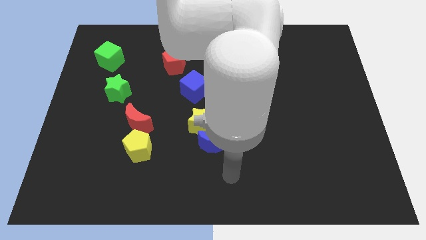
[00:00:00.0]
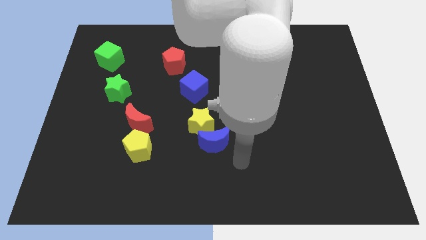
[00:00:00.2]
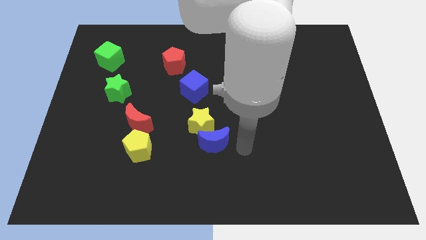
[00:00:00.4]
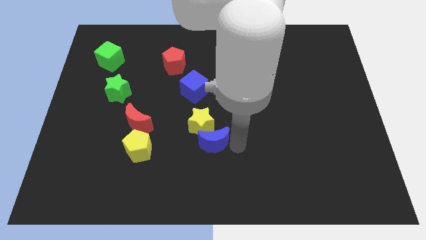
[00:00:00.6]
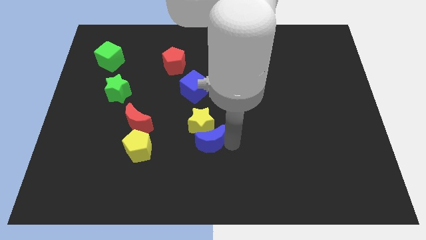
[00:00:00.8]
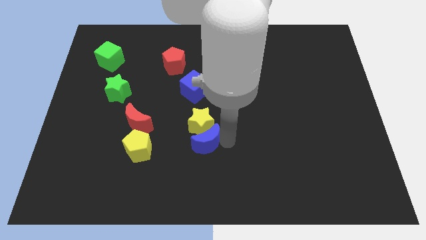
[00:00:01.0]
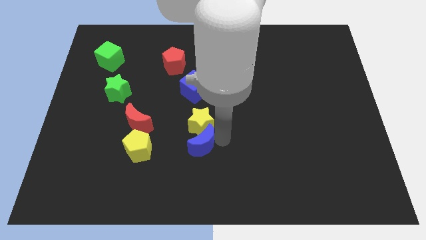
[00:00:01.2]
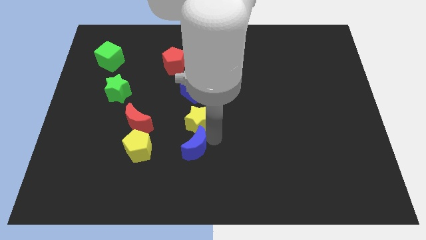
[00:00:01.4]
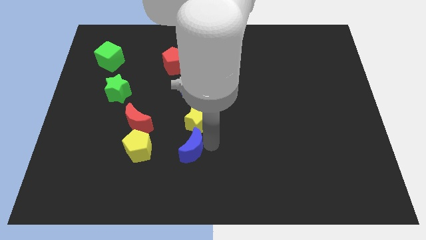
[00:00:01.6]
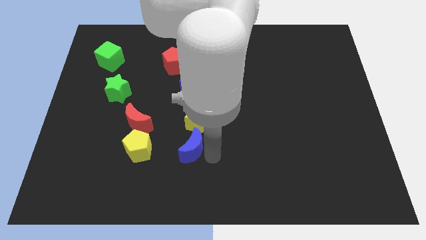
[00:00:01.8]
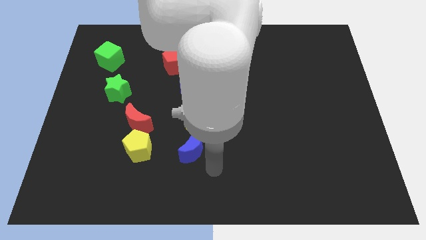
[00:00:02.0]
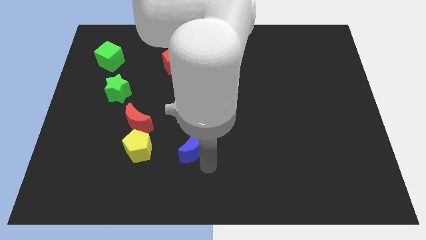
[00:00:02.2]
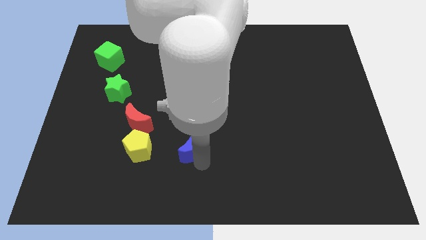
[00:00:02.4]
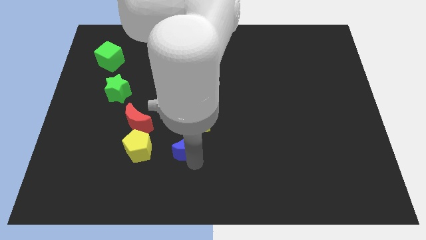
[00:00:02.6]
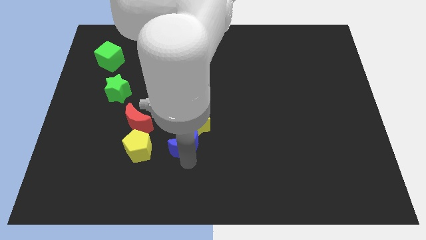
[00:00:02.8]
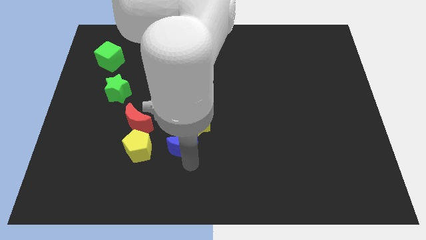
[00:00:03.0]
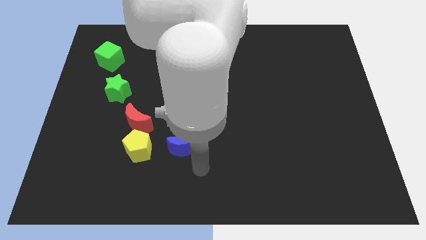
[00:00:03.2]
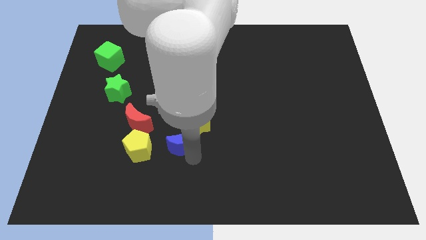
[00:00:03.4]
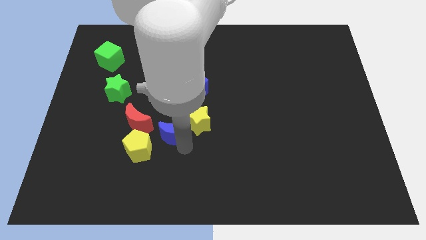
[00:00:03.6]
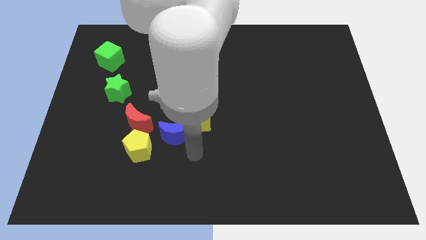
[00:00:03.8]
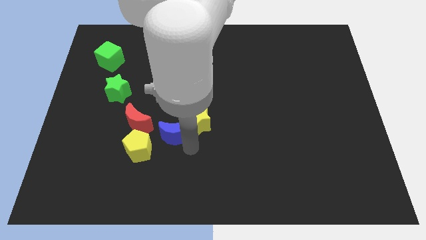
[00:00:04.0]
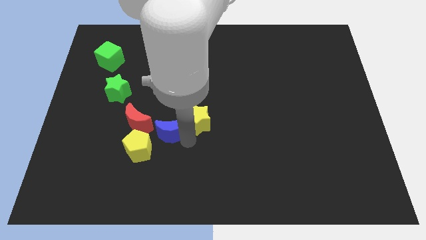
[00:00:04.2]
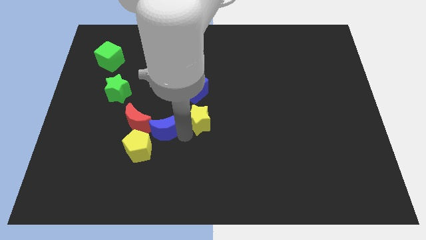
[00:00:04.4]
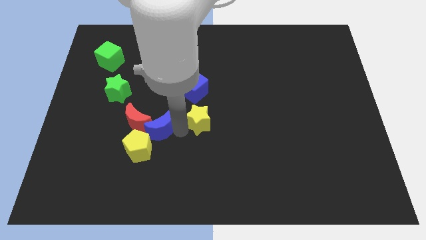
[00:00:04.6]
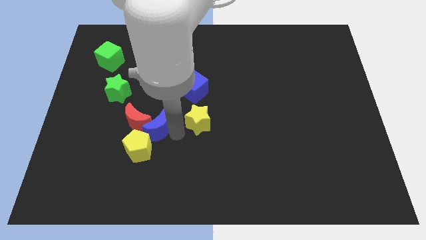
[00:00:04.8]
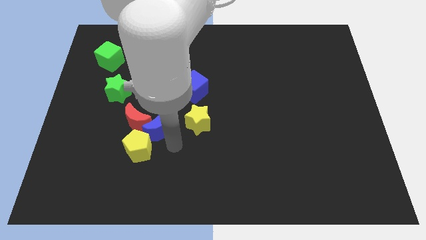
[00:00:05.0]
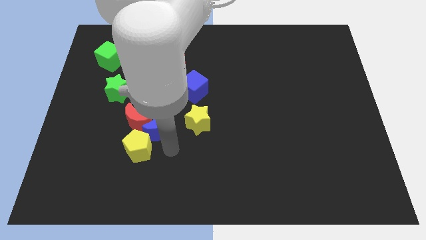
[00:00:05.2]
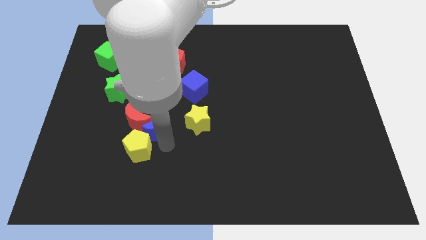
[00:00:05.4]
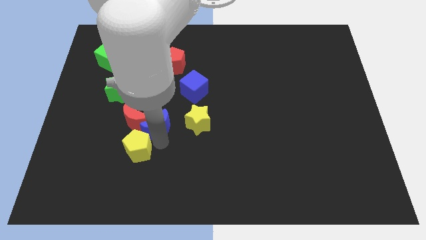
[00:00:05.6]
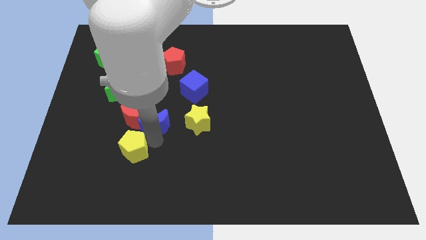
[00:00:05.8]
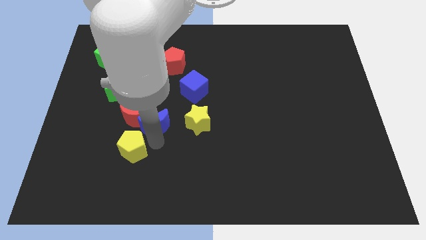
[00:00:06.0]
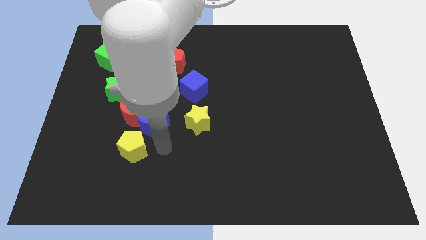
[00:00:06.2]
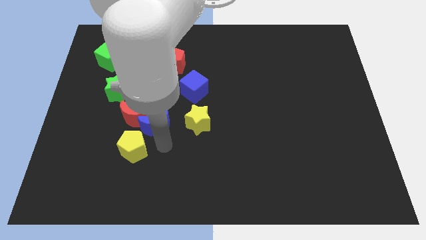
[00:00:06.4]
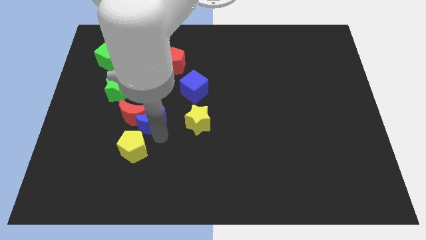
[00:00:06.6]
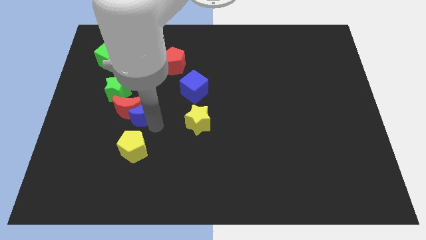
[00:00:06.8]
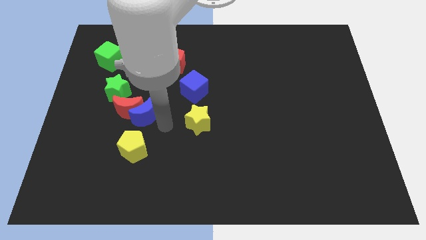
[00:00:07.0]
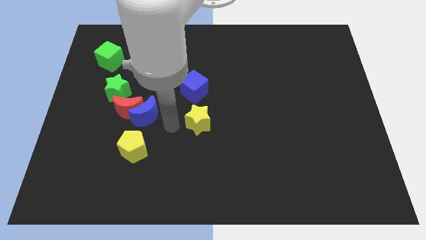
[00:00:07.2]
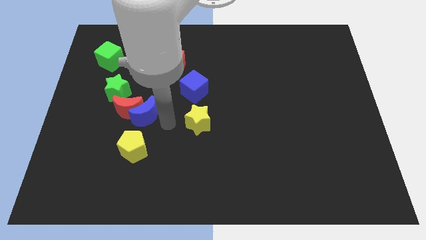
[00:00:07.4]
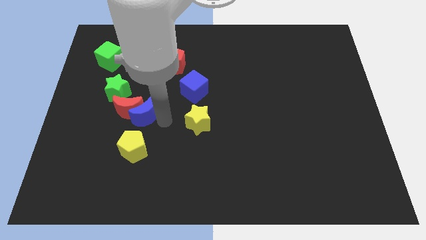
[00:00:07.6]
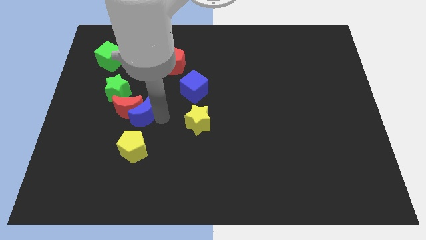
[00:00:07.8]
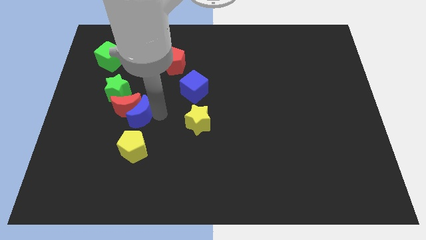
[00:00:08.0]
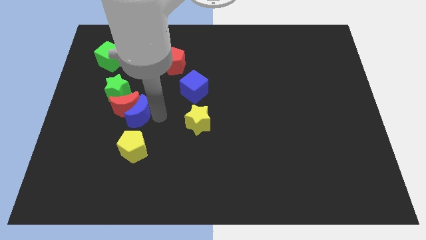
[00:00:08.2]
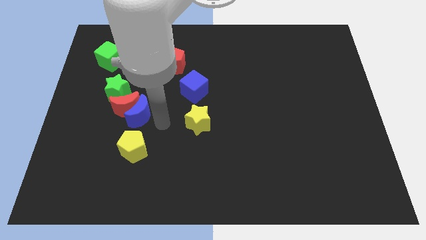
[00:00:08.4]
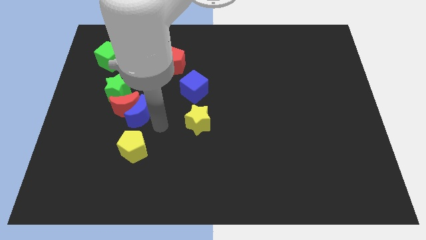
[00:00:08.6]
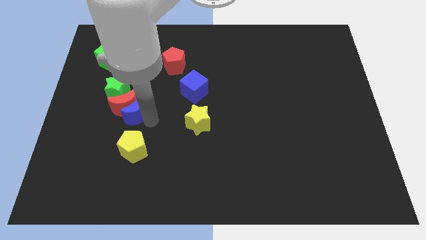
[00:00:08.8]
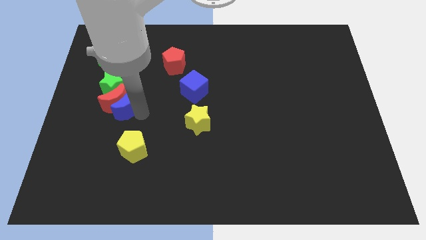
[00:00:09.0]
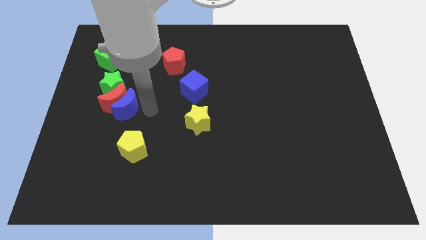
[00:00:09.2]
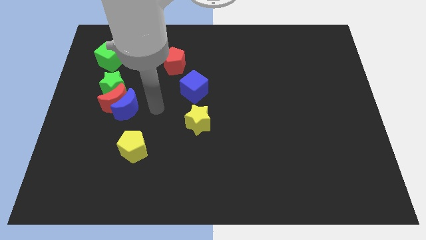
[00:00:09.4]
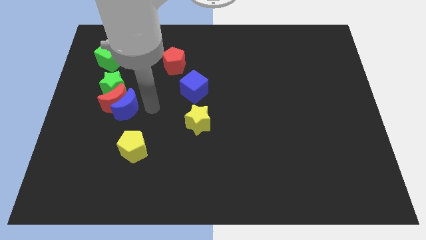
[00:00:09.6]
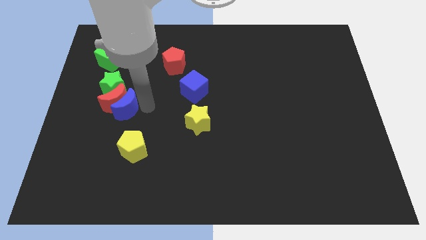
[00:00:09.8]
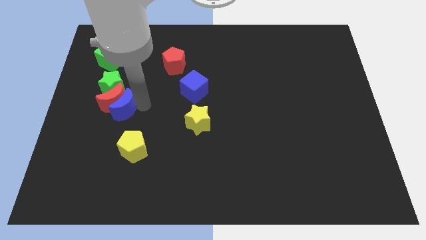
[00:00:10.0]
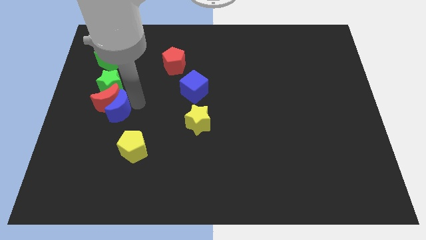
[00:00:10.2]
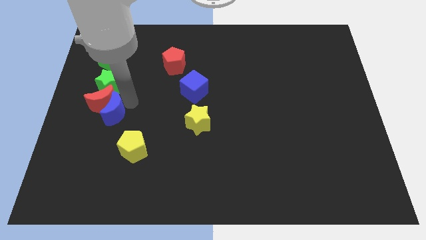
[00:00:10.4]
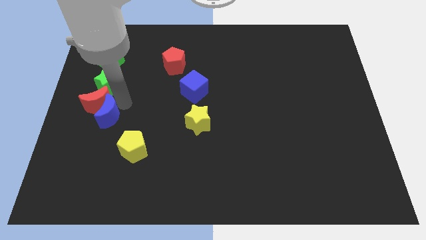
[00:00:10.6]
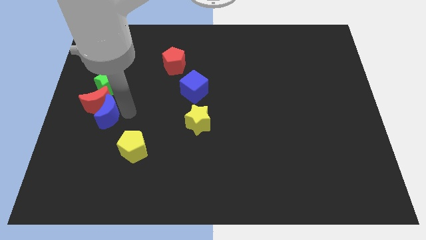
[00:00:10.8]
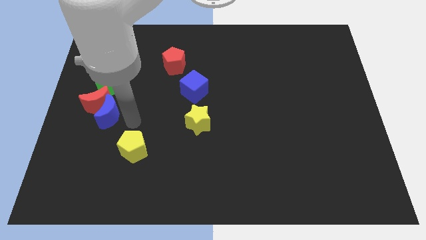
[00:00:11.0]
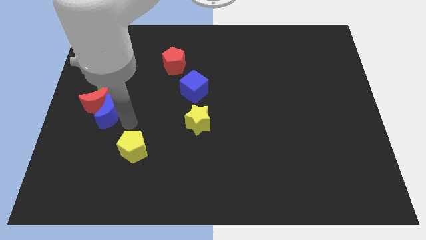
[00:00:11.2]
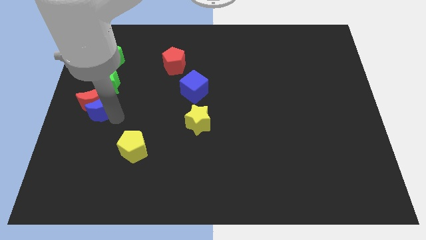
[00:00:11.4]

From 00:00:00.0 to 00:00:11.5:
slide the blue moon to the center left

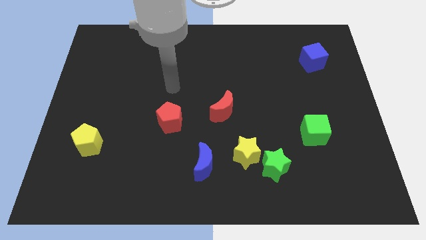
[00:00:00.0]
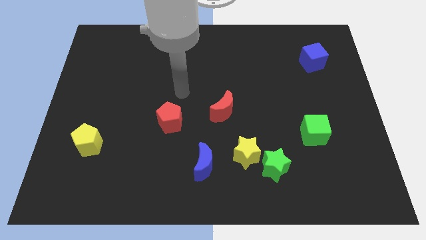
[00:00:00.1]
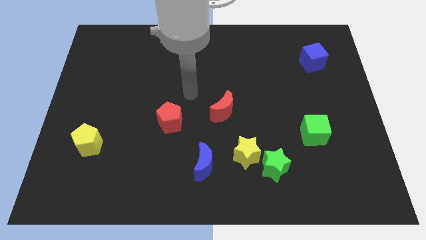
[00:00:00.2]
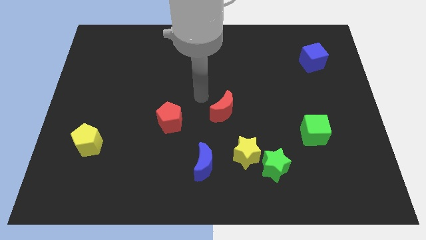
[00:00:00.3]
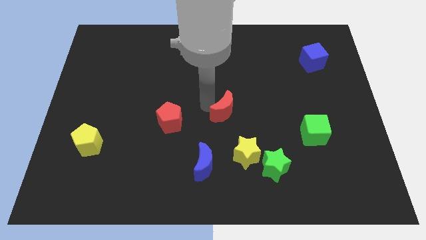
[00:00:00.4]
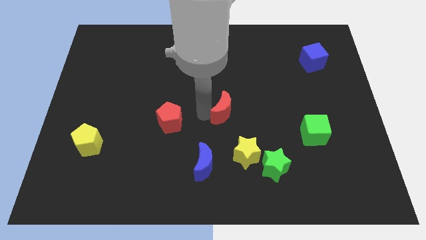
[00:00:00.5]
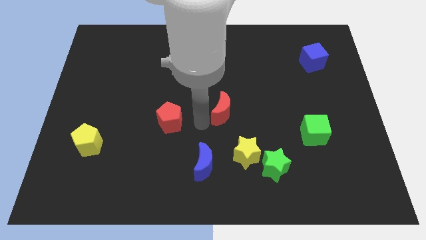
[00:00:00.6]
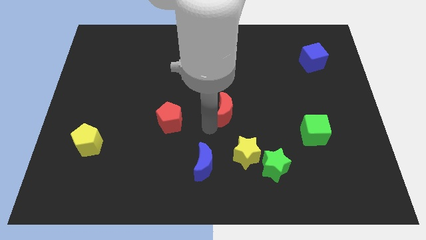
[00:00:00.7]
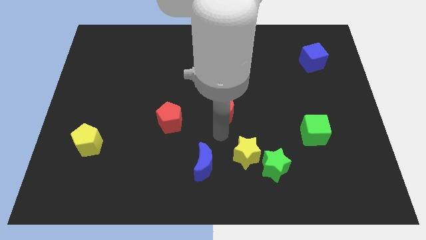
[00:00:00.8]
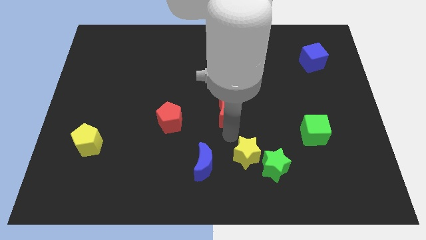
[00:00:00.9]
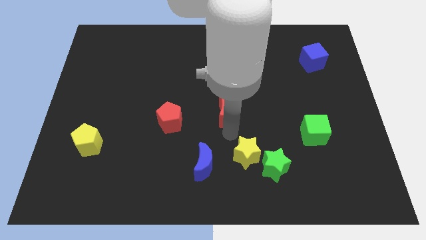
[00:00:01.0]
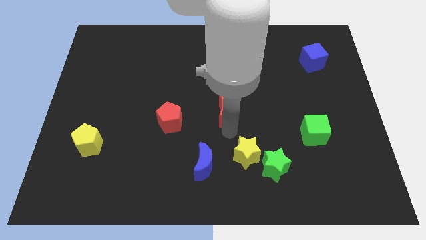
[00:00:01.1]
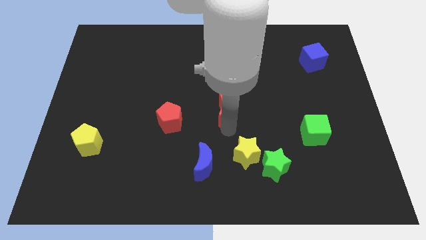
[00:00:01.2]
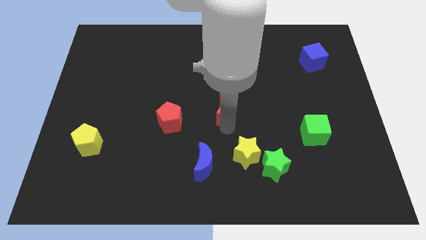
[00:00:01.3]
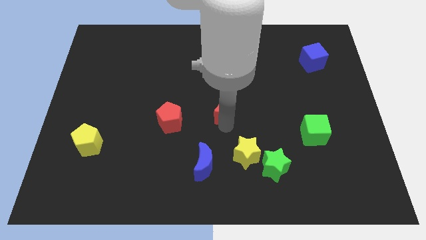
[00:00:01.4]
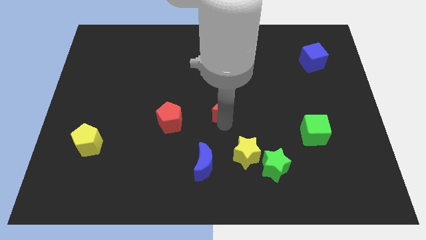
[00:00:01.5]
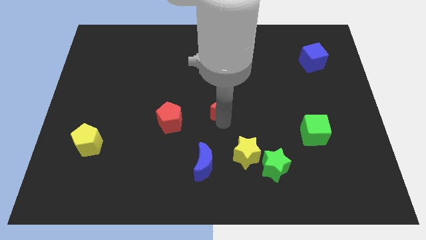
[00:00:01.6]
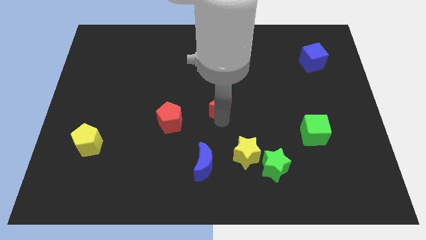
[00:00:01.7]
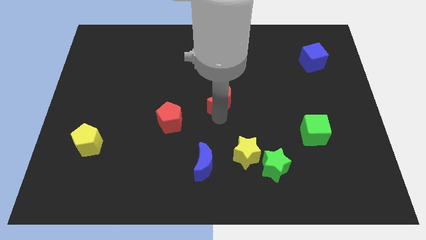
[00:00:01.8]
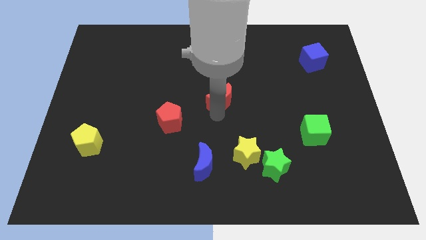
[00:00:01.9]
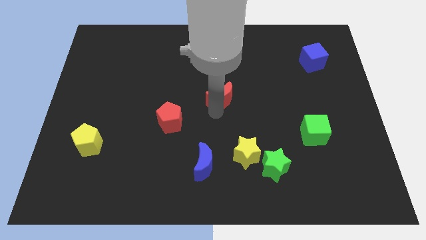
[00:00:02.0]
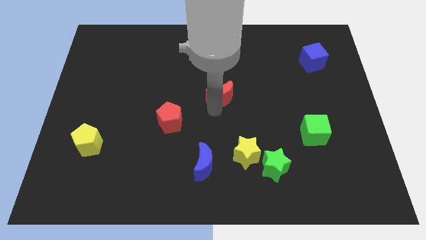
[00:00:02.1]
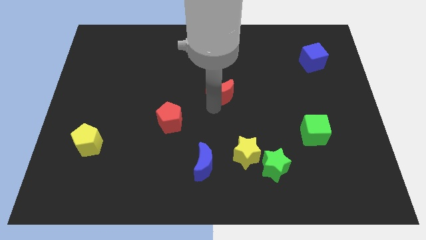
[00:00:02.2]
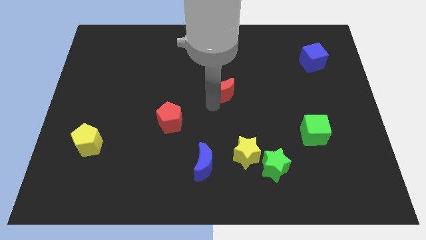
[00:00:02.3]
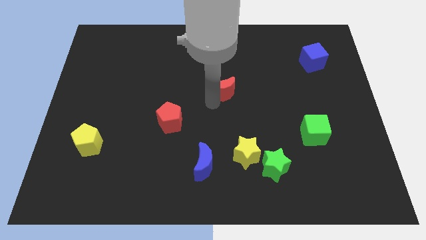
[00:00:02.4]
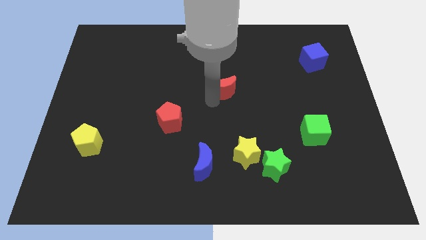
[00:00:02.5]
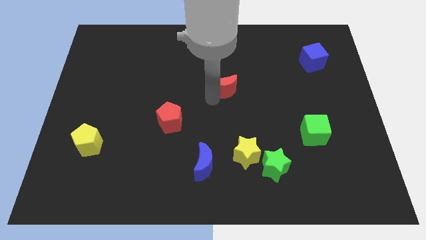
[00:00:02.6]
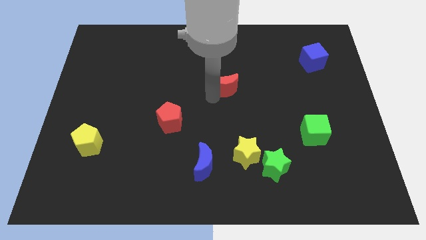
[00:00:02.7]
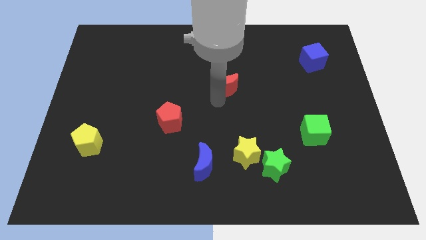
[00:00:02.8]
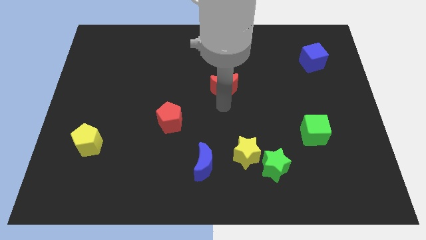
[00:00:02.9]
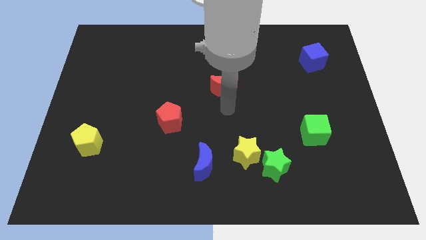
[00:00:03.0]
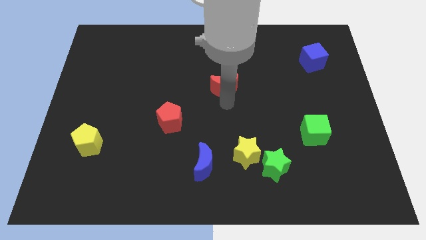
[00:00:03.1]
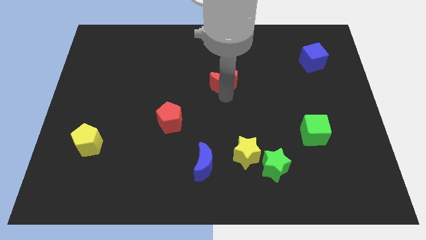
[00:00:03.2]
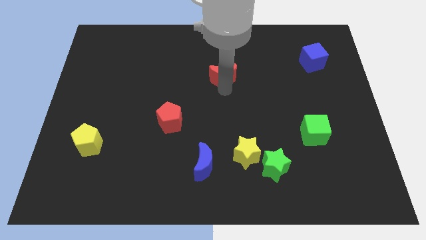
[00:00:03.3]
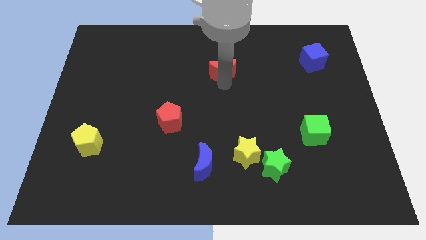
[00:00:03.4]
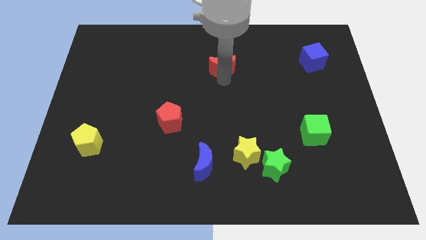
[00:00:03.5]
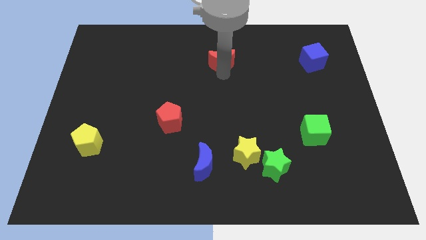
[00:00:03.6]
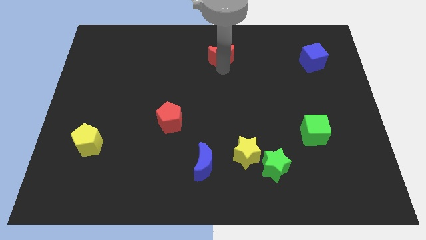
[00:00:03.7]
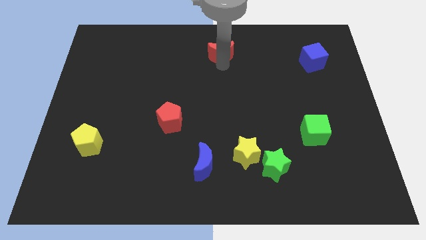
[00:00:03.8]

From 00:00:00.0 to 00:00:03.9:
move the red moon to the top
